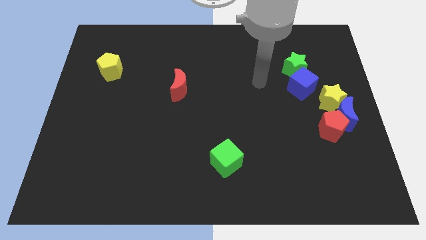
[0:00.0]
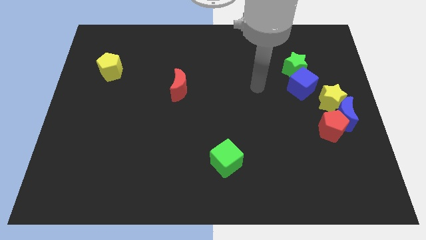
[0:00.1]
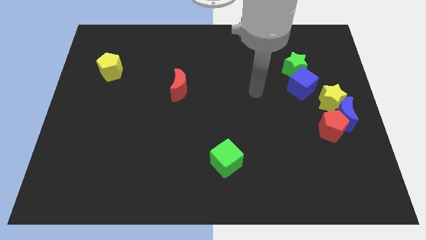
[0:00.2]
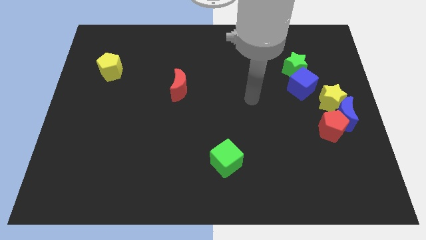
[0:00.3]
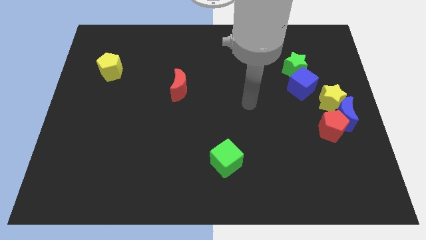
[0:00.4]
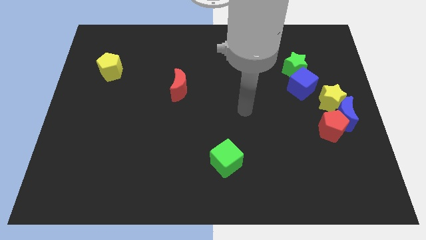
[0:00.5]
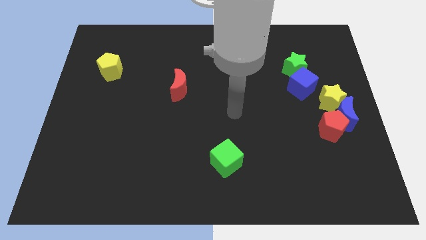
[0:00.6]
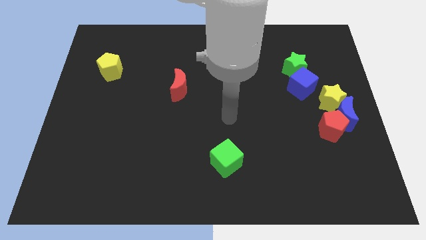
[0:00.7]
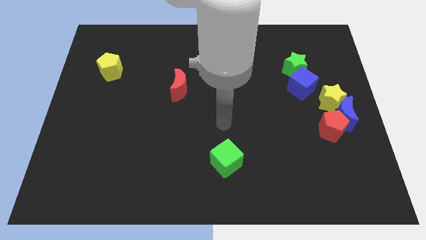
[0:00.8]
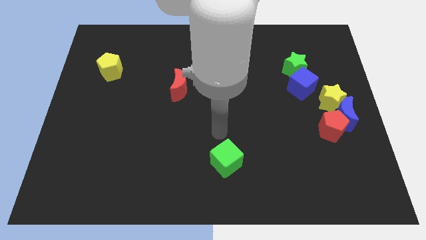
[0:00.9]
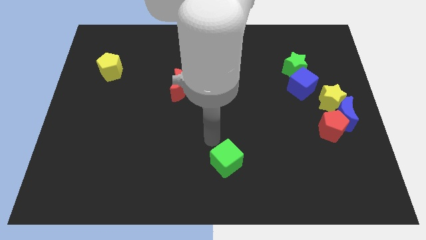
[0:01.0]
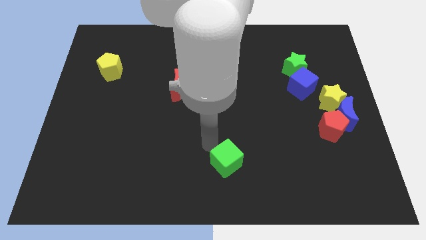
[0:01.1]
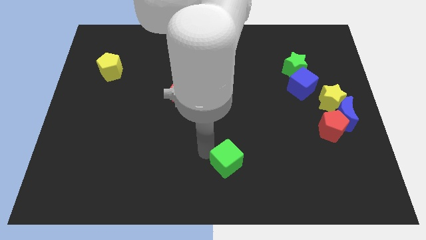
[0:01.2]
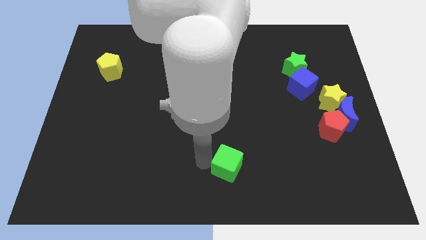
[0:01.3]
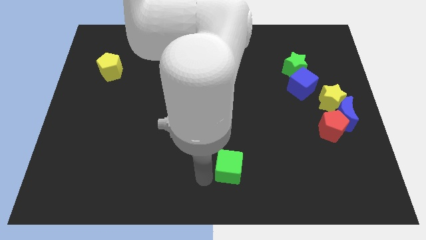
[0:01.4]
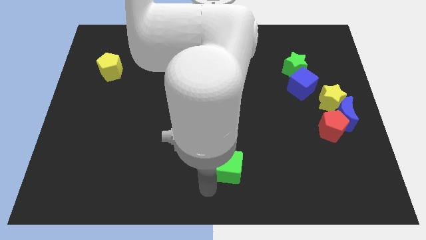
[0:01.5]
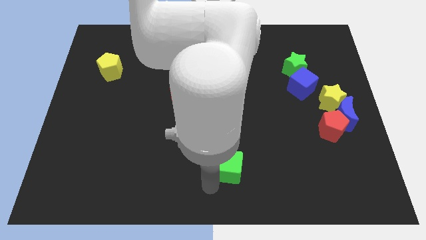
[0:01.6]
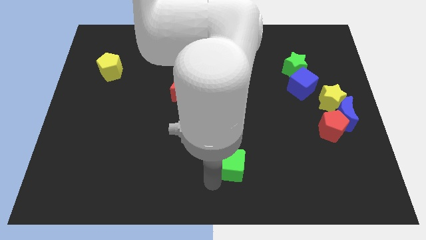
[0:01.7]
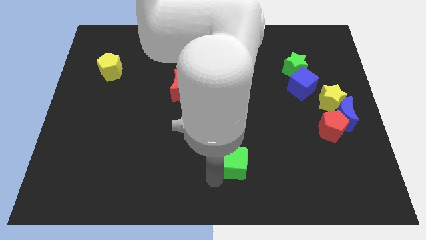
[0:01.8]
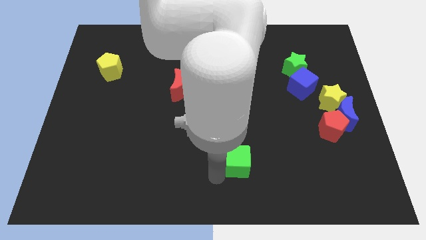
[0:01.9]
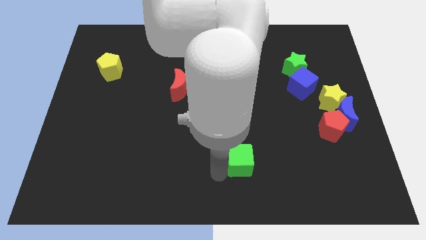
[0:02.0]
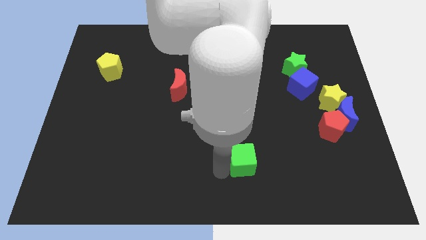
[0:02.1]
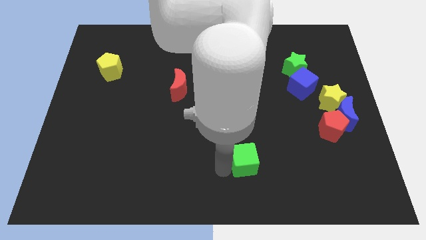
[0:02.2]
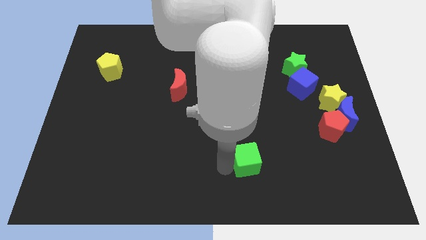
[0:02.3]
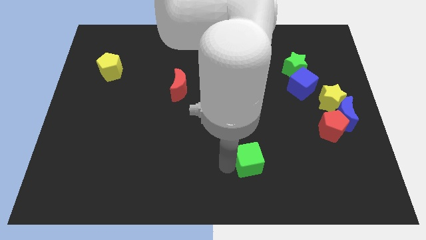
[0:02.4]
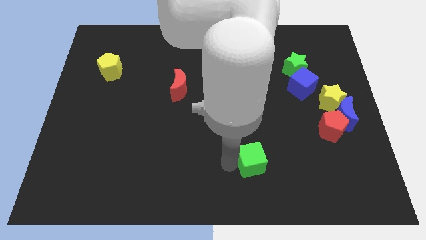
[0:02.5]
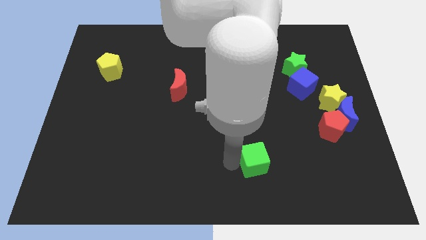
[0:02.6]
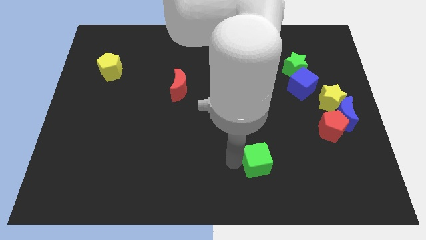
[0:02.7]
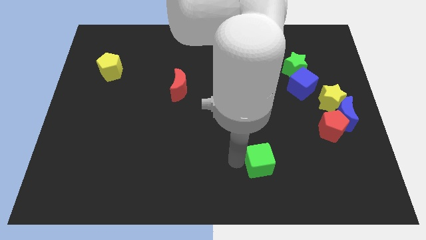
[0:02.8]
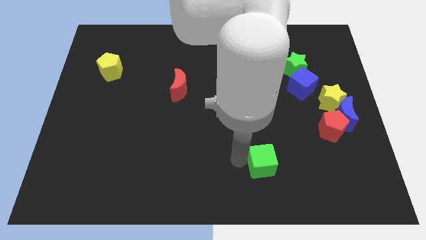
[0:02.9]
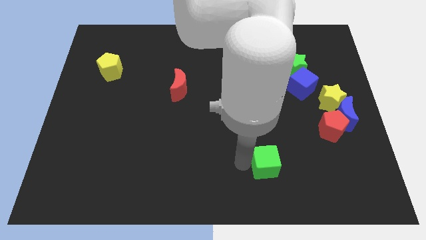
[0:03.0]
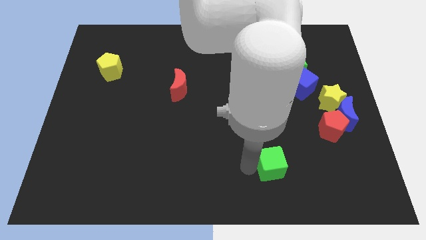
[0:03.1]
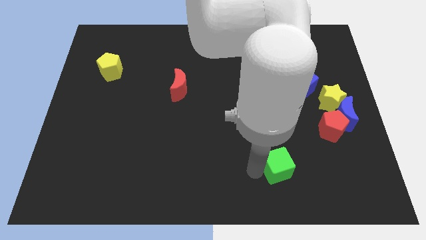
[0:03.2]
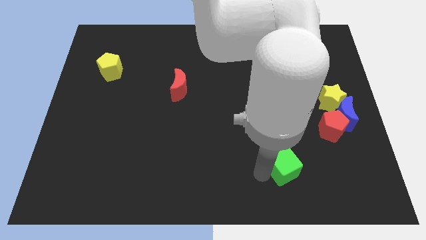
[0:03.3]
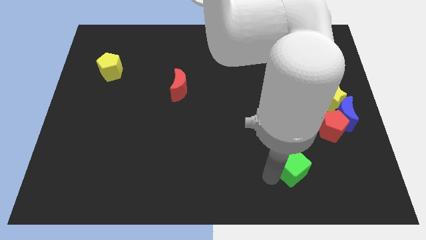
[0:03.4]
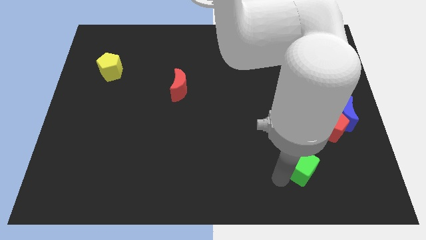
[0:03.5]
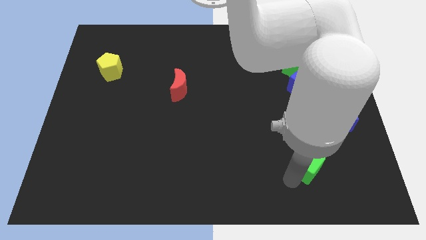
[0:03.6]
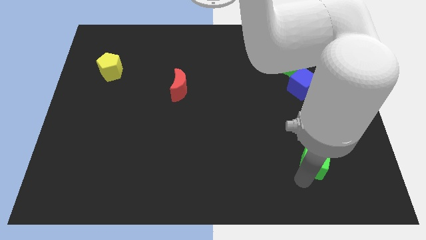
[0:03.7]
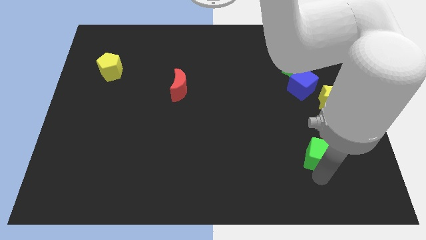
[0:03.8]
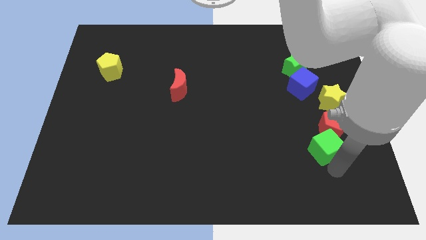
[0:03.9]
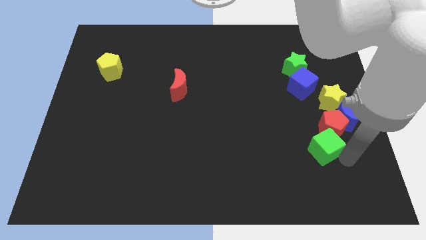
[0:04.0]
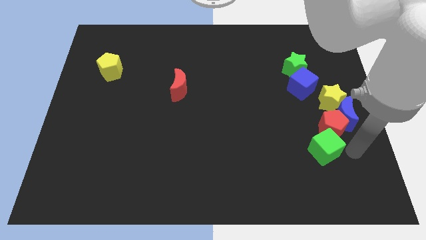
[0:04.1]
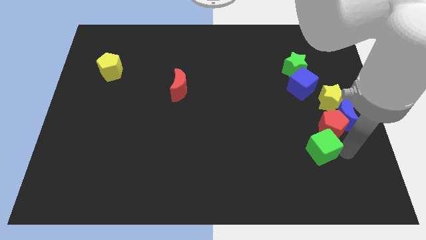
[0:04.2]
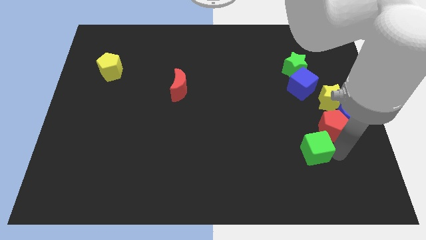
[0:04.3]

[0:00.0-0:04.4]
move the green cube slightly diagonally up and to the right

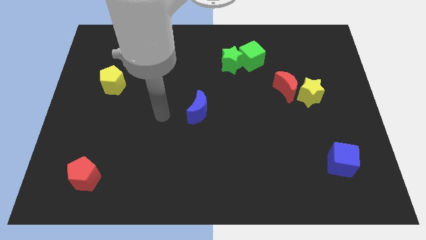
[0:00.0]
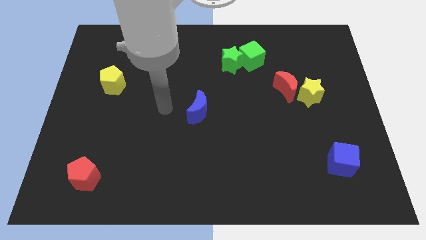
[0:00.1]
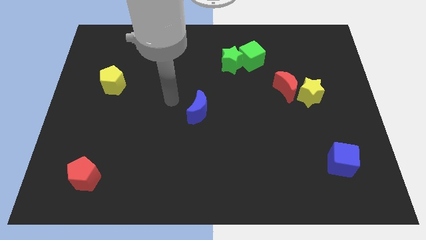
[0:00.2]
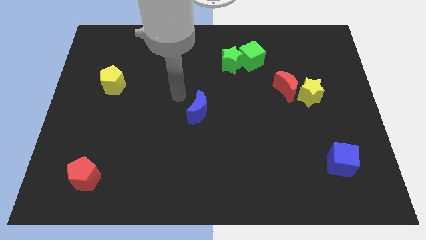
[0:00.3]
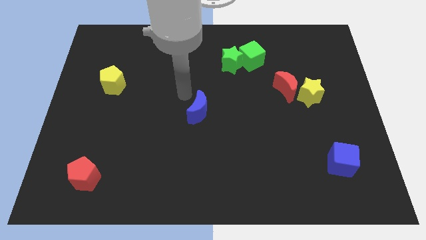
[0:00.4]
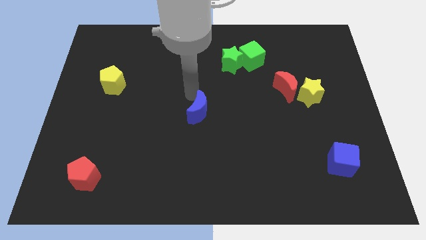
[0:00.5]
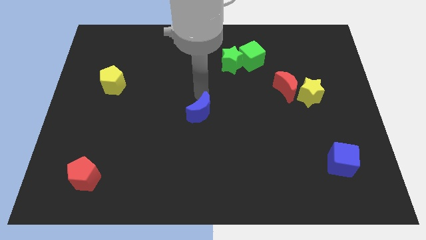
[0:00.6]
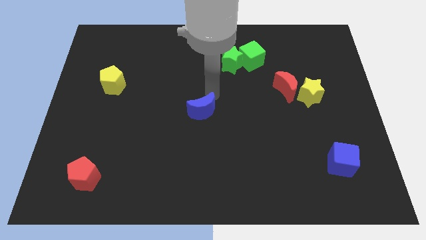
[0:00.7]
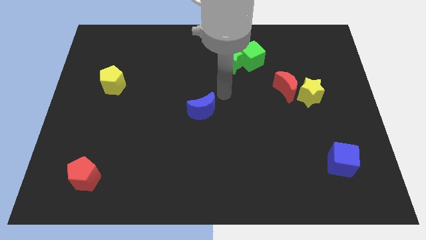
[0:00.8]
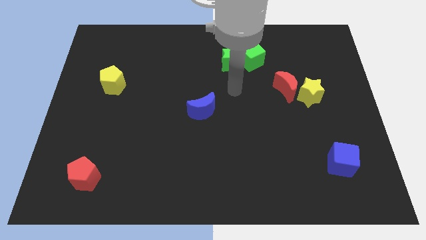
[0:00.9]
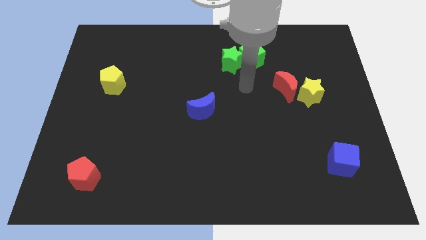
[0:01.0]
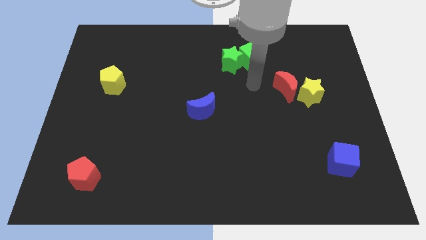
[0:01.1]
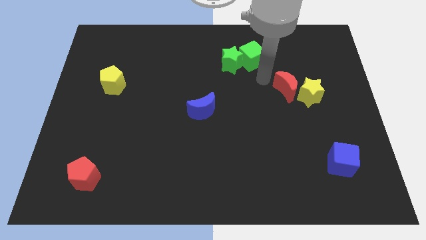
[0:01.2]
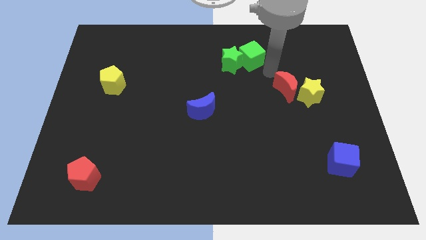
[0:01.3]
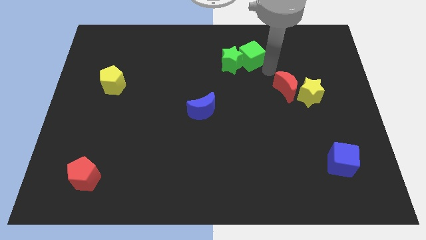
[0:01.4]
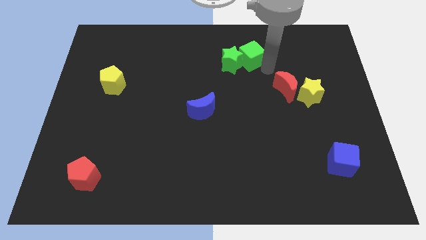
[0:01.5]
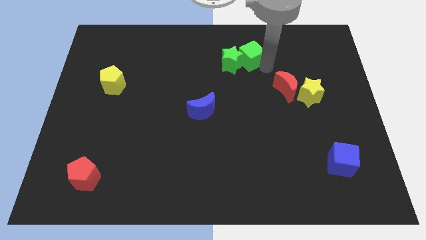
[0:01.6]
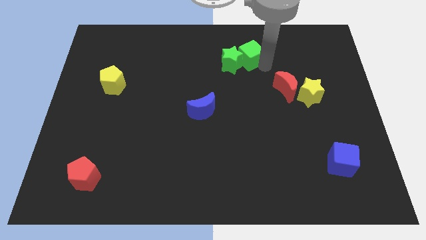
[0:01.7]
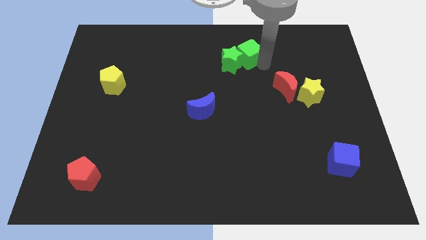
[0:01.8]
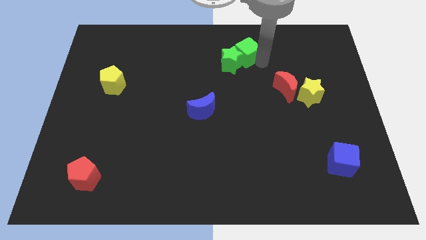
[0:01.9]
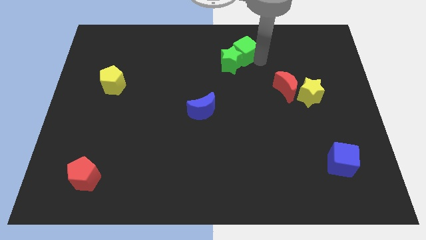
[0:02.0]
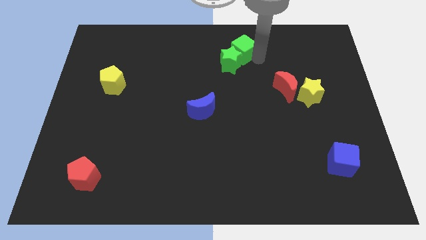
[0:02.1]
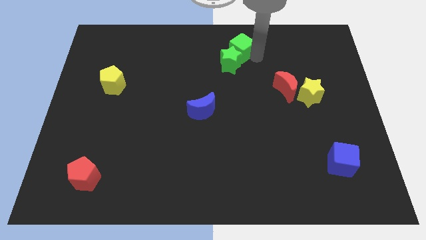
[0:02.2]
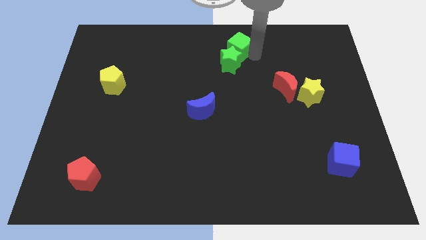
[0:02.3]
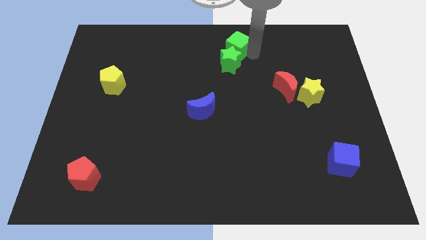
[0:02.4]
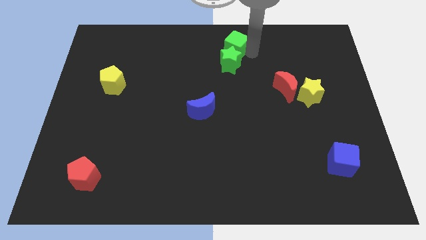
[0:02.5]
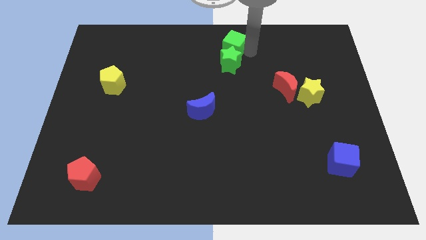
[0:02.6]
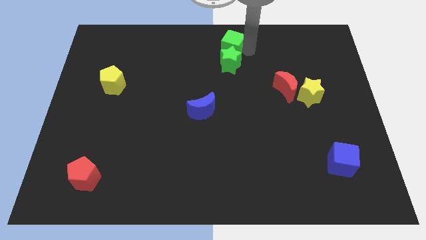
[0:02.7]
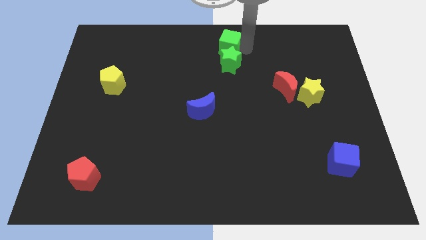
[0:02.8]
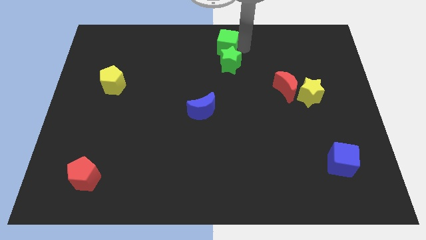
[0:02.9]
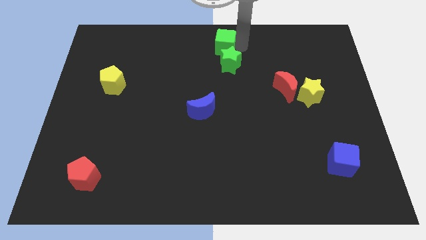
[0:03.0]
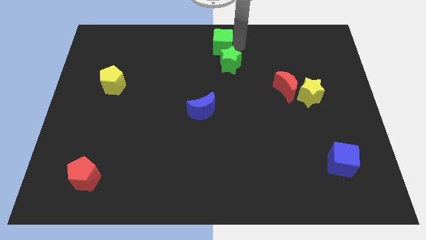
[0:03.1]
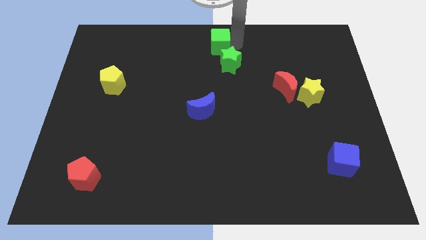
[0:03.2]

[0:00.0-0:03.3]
slide the green cube left a little

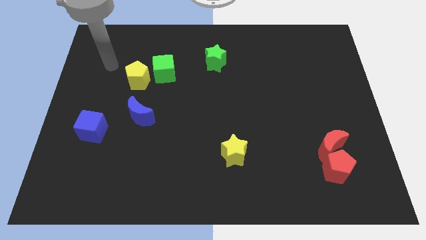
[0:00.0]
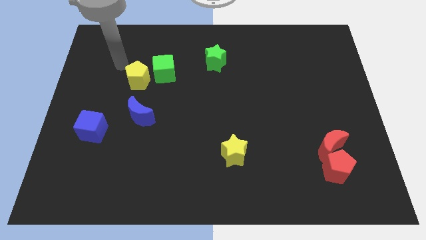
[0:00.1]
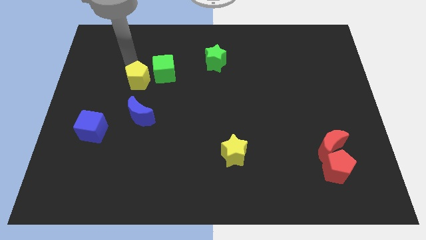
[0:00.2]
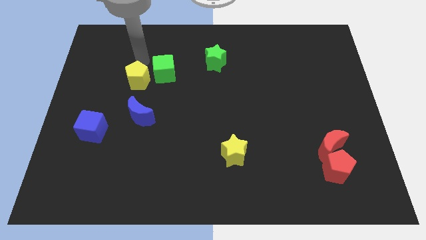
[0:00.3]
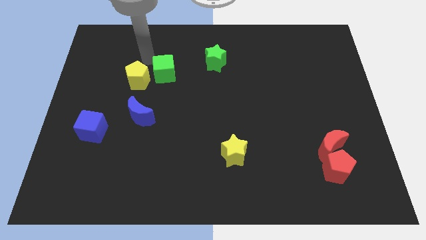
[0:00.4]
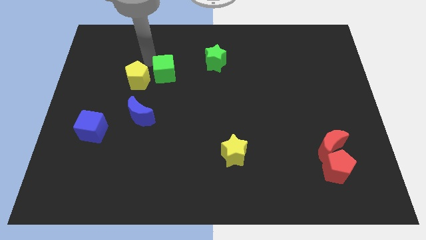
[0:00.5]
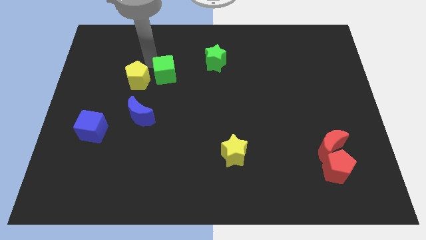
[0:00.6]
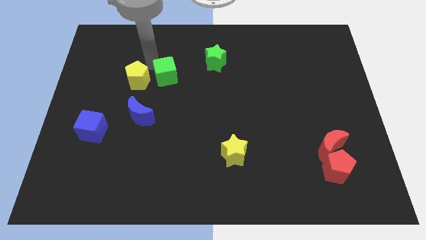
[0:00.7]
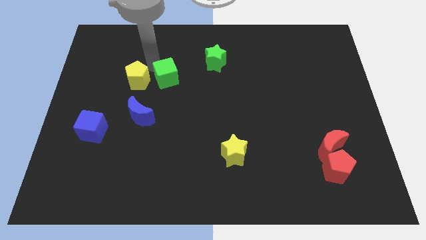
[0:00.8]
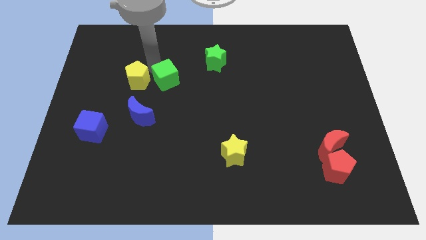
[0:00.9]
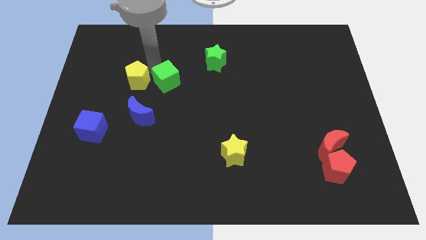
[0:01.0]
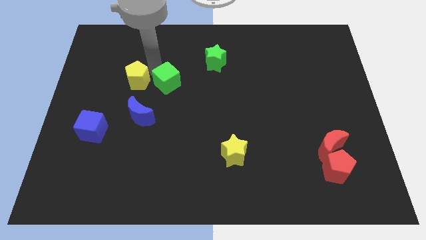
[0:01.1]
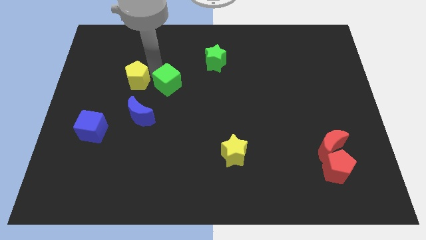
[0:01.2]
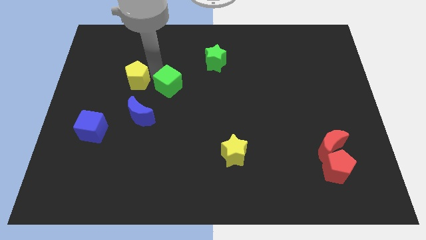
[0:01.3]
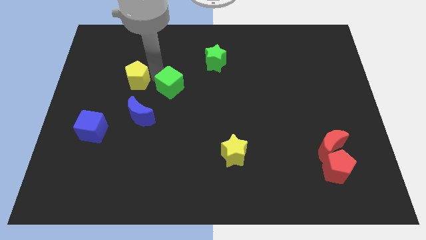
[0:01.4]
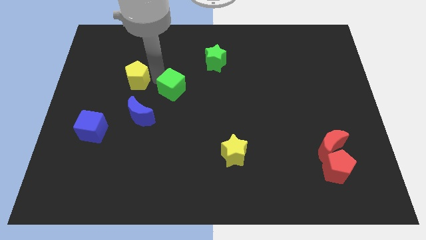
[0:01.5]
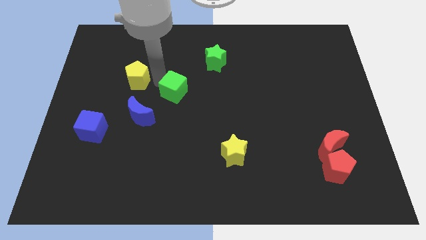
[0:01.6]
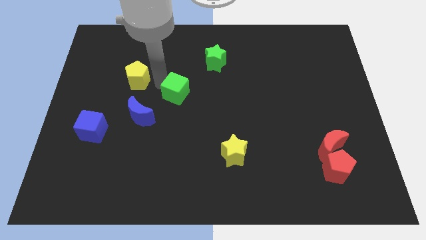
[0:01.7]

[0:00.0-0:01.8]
slightly move the green cube downwards and then right
